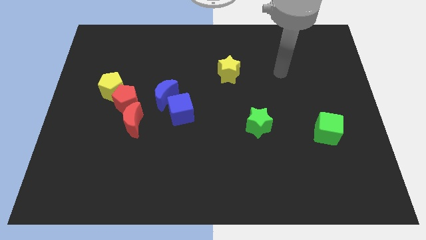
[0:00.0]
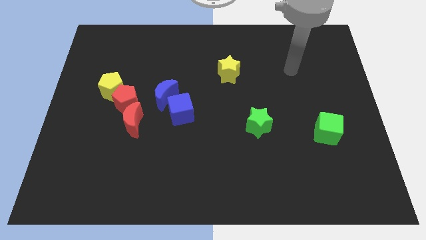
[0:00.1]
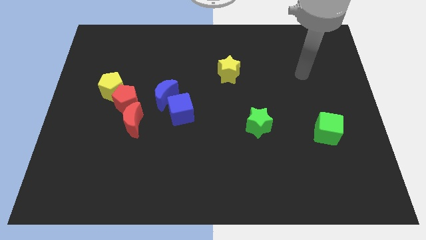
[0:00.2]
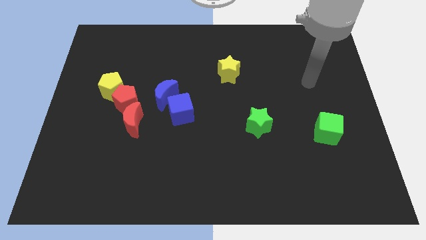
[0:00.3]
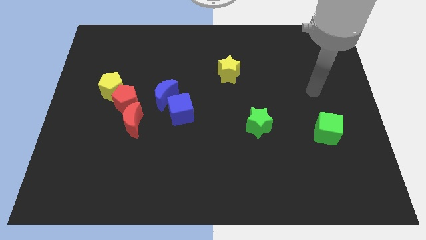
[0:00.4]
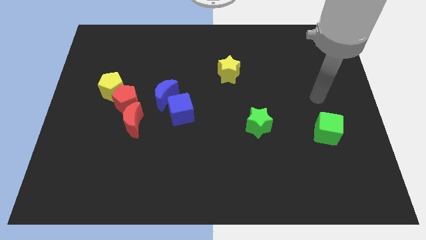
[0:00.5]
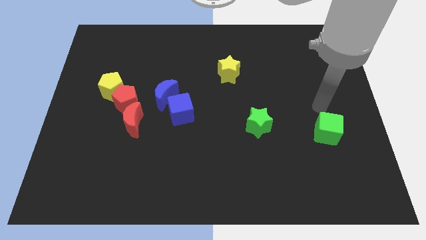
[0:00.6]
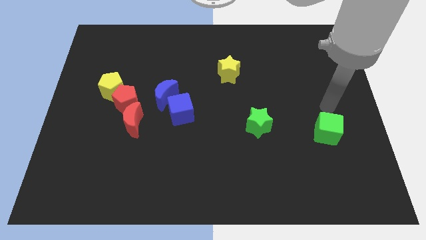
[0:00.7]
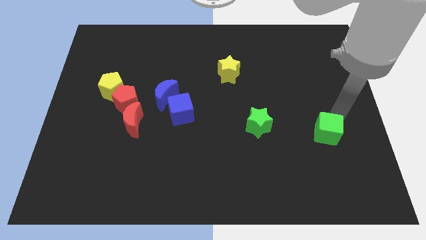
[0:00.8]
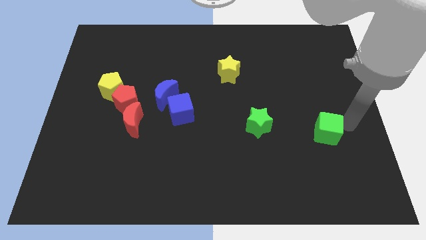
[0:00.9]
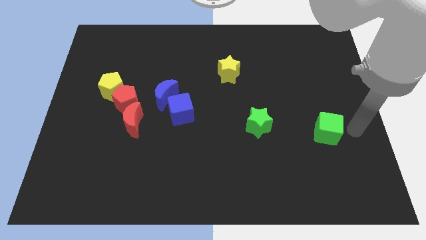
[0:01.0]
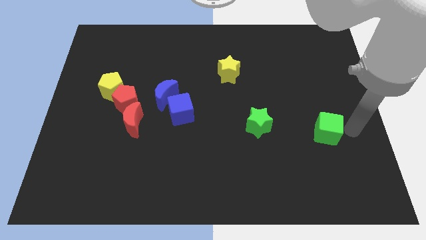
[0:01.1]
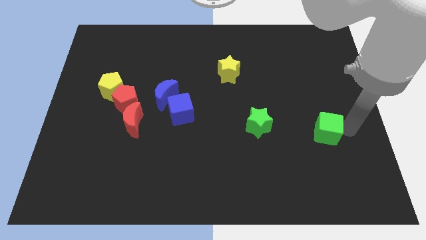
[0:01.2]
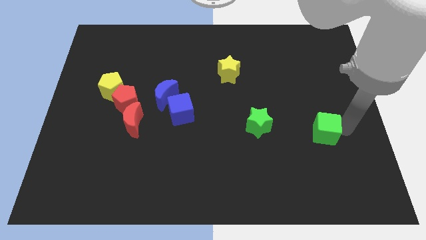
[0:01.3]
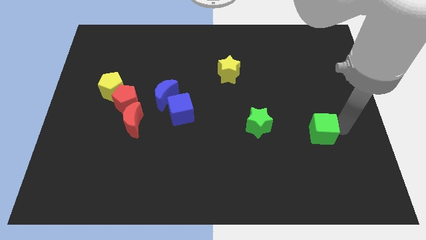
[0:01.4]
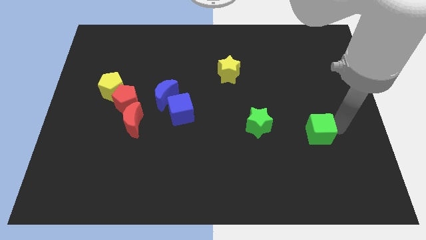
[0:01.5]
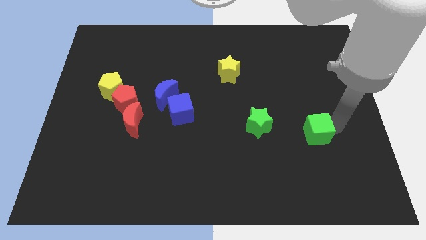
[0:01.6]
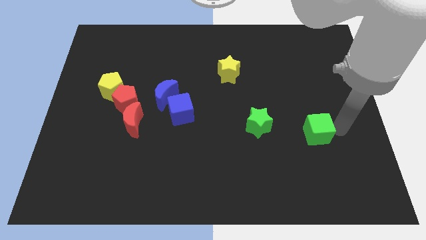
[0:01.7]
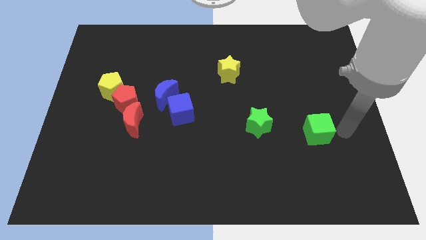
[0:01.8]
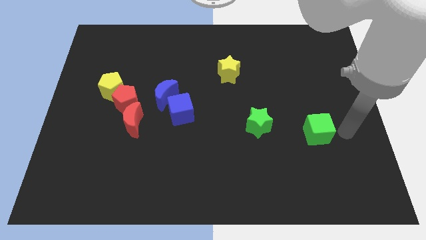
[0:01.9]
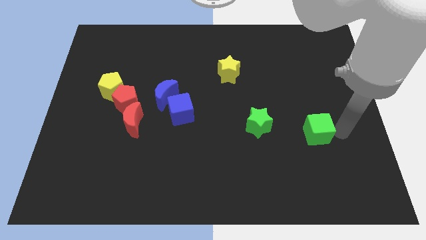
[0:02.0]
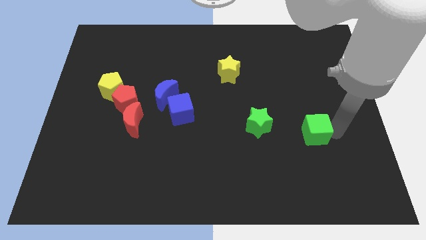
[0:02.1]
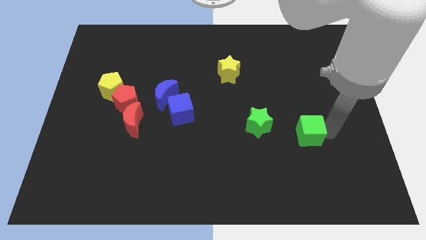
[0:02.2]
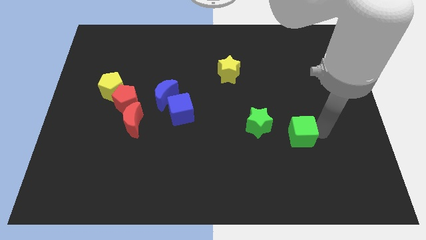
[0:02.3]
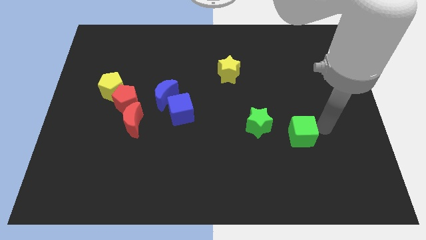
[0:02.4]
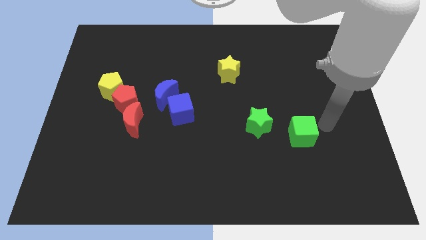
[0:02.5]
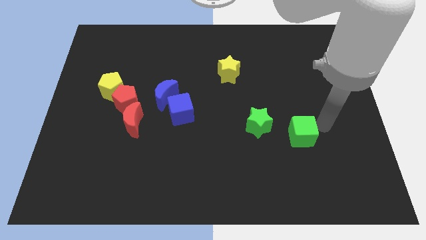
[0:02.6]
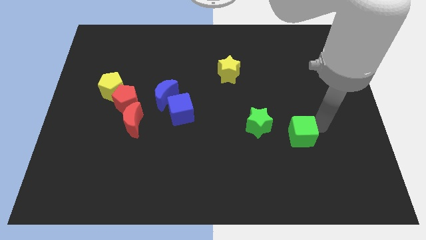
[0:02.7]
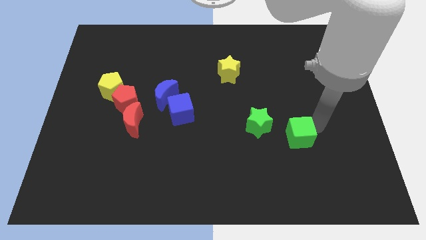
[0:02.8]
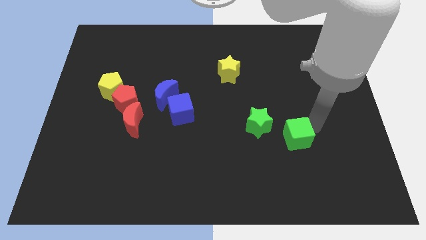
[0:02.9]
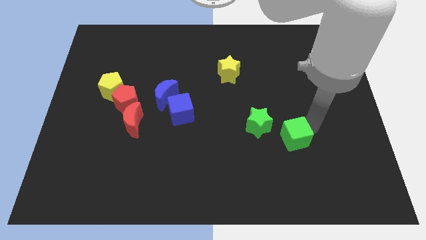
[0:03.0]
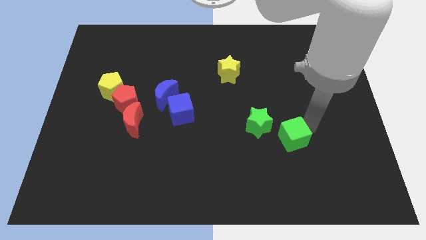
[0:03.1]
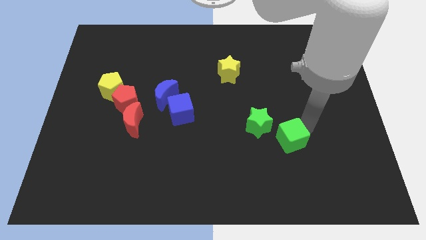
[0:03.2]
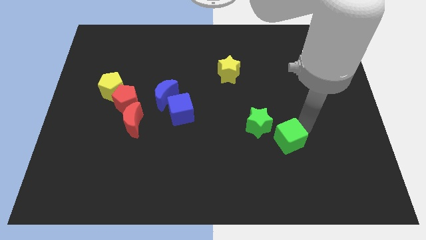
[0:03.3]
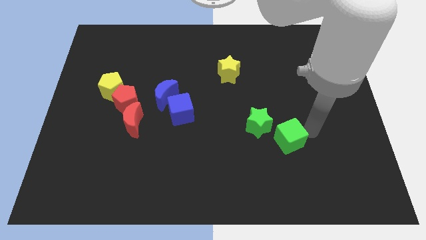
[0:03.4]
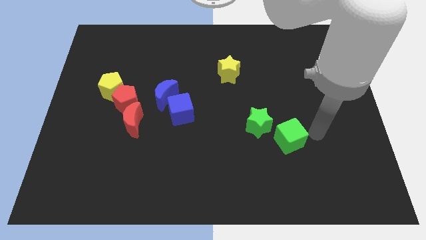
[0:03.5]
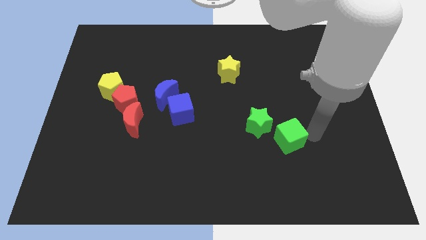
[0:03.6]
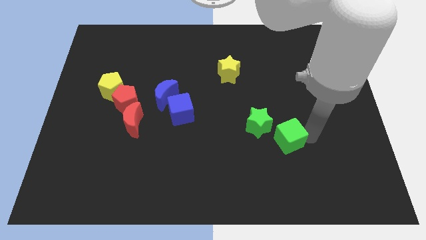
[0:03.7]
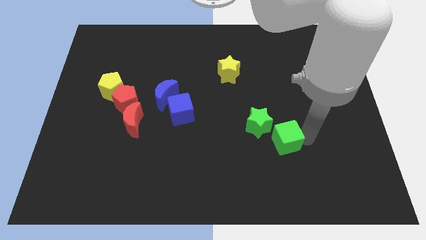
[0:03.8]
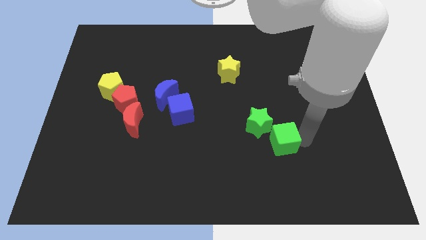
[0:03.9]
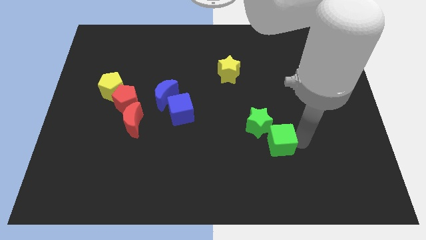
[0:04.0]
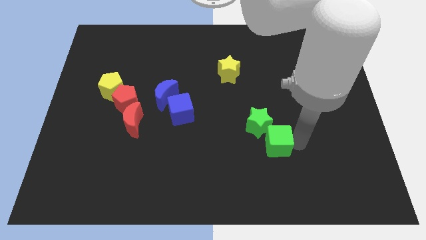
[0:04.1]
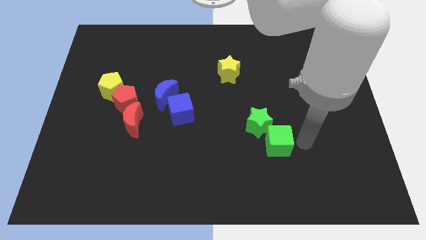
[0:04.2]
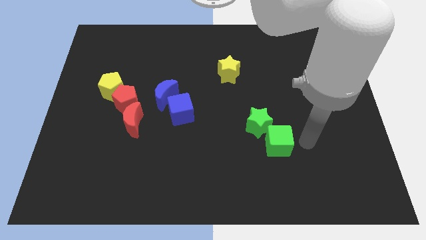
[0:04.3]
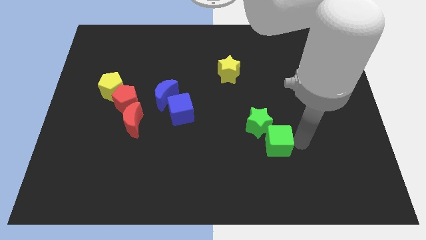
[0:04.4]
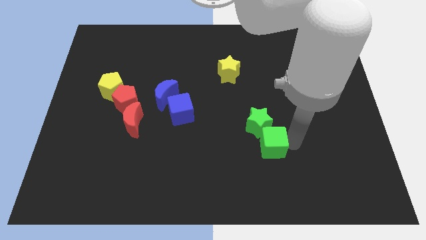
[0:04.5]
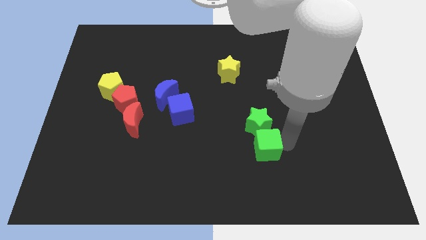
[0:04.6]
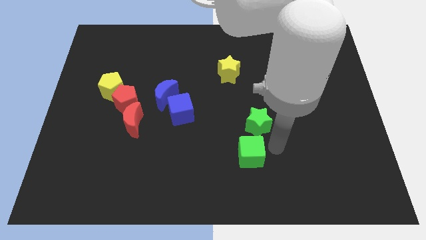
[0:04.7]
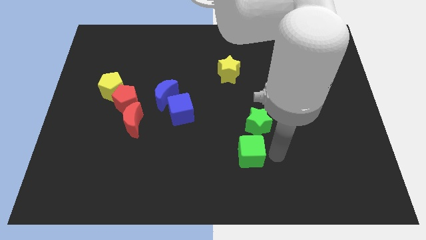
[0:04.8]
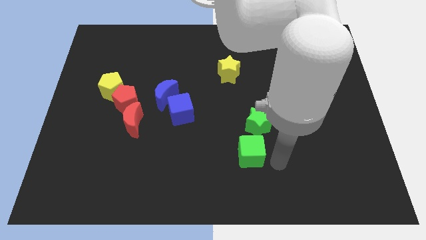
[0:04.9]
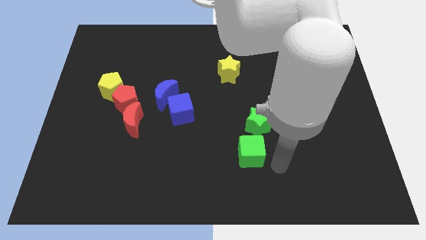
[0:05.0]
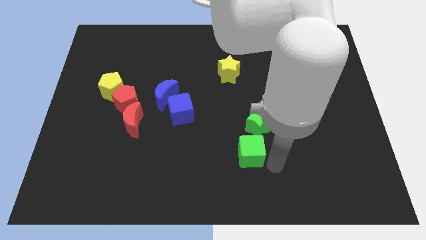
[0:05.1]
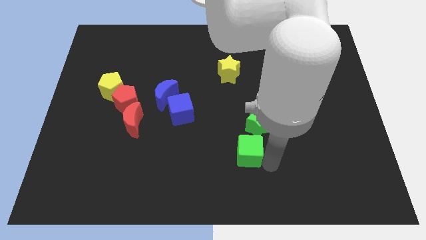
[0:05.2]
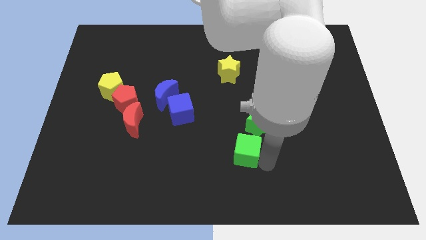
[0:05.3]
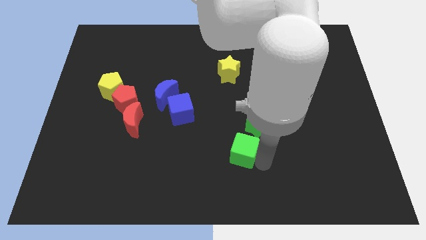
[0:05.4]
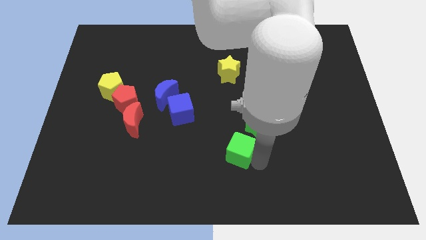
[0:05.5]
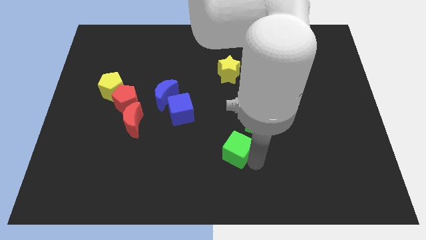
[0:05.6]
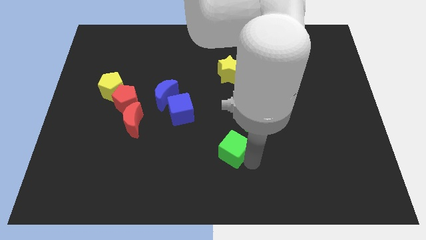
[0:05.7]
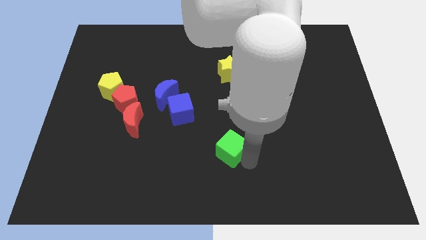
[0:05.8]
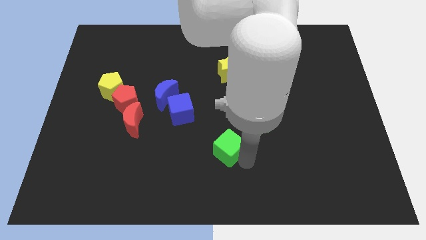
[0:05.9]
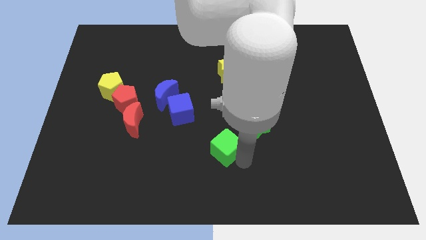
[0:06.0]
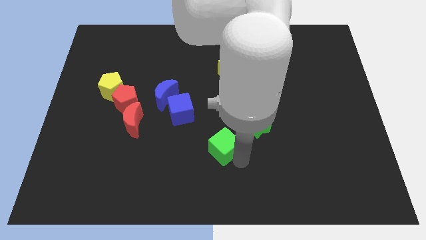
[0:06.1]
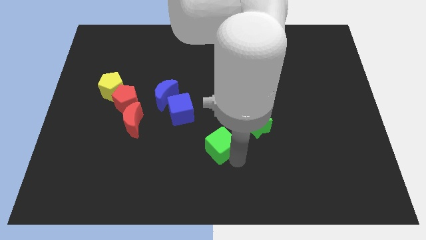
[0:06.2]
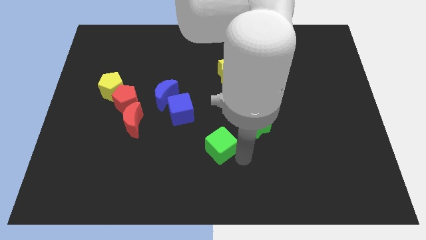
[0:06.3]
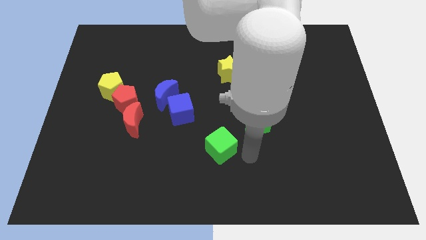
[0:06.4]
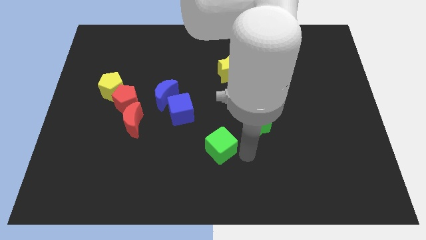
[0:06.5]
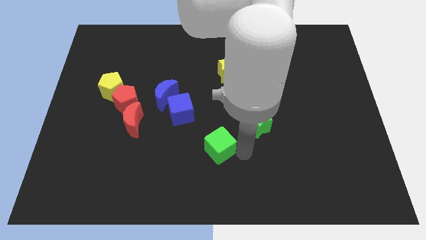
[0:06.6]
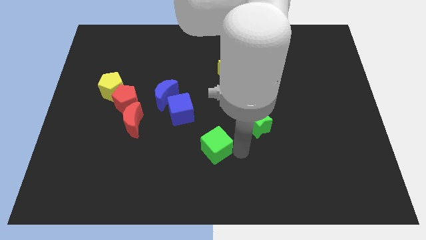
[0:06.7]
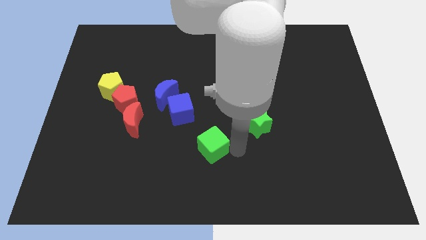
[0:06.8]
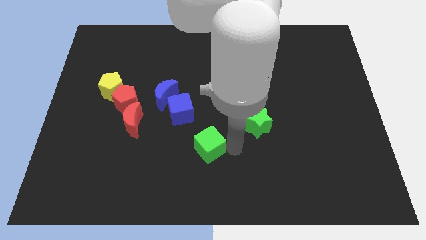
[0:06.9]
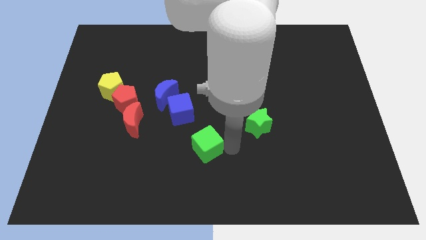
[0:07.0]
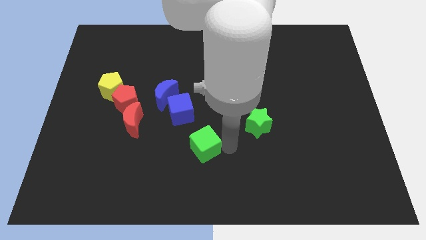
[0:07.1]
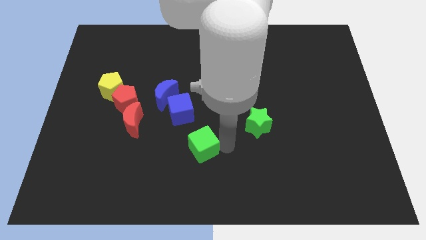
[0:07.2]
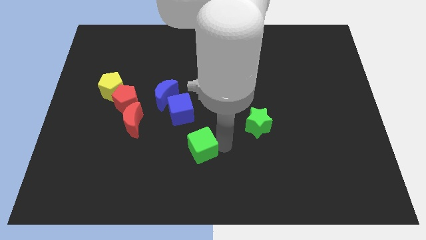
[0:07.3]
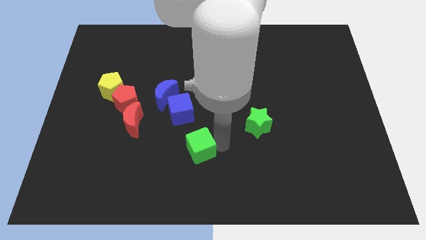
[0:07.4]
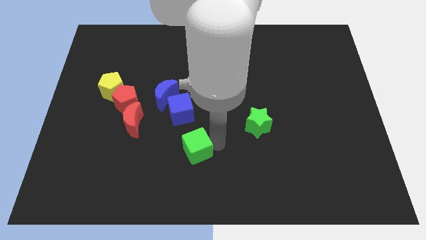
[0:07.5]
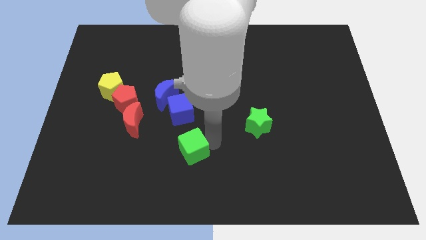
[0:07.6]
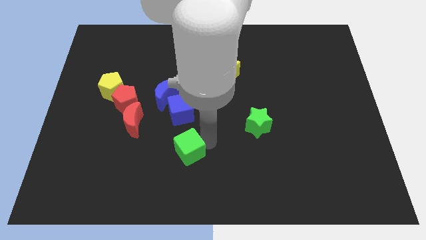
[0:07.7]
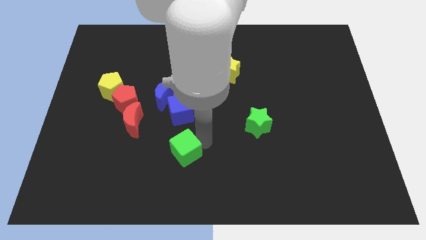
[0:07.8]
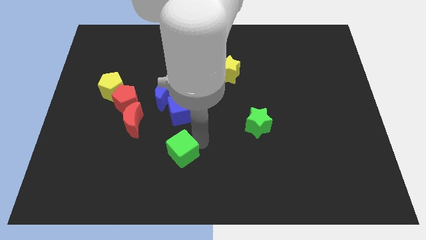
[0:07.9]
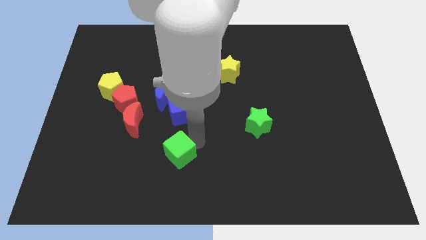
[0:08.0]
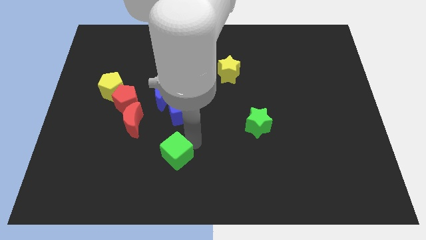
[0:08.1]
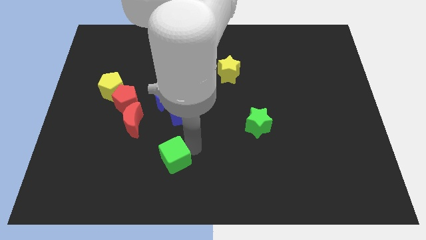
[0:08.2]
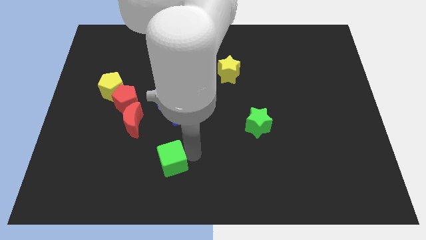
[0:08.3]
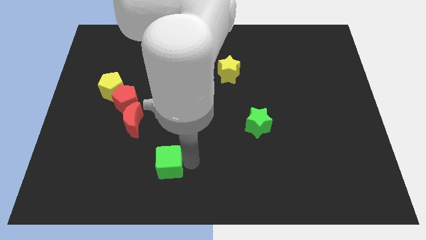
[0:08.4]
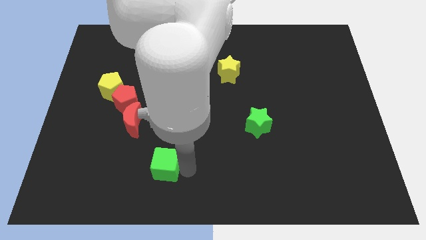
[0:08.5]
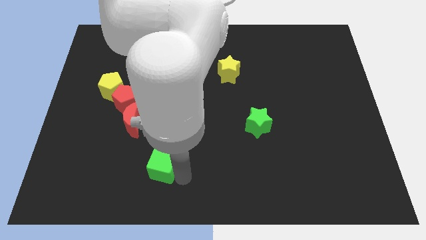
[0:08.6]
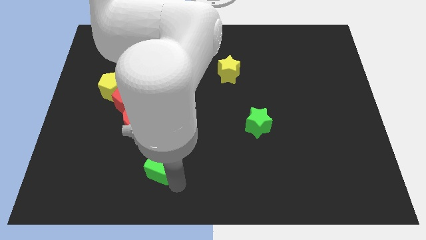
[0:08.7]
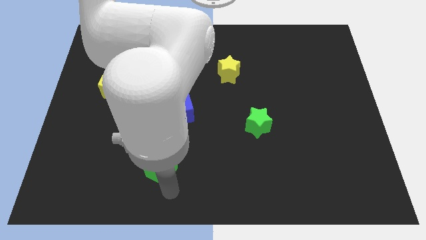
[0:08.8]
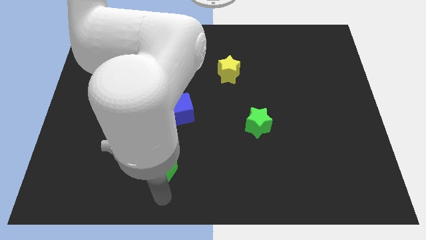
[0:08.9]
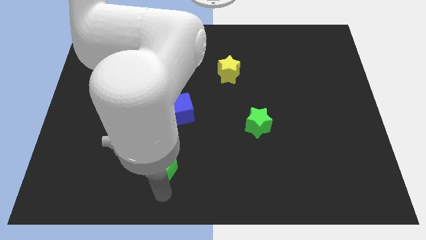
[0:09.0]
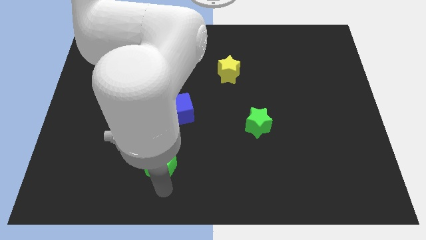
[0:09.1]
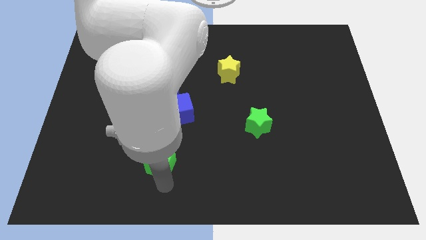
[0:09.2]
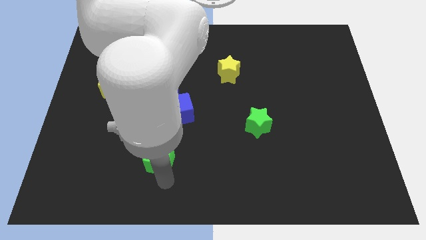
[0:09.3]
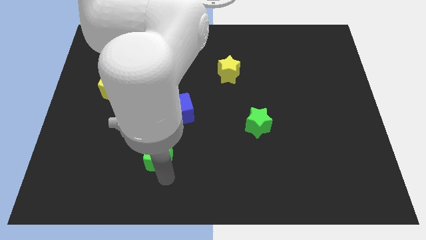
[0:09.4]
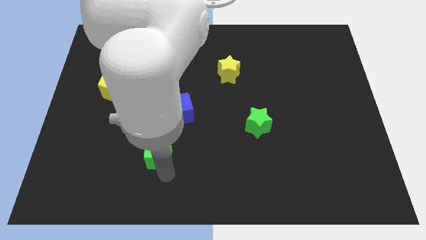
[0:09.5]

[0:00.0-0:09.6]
slide the green cube below the blue moon
